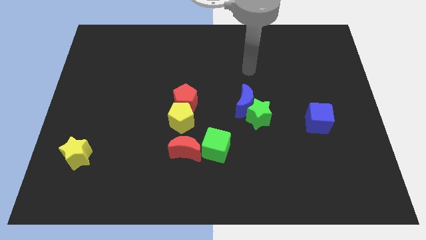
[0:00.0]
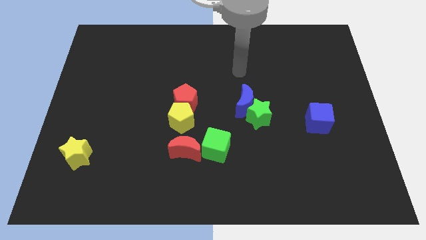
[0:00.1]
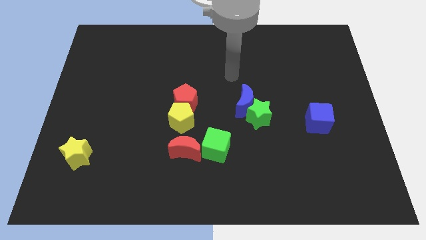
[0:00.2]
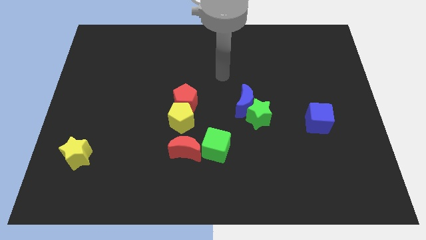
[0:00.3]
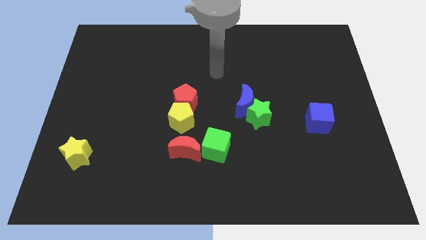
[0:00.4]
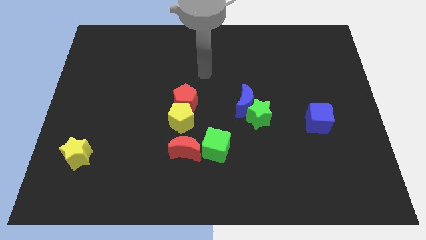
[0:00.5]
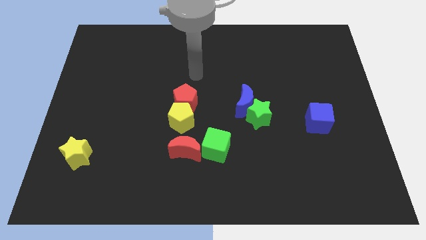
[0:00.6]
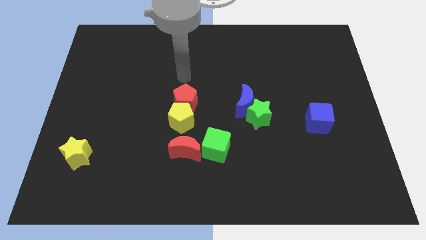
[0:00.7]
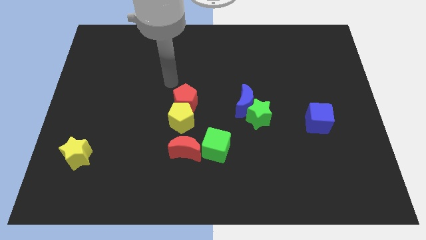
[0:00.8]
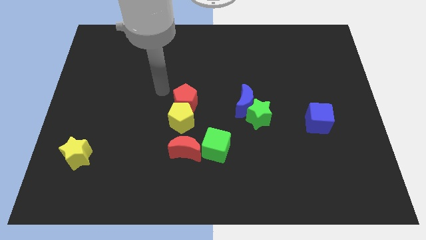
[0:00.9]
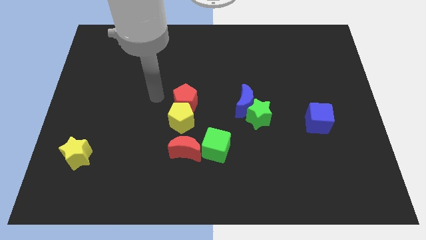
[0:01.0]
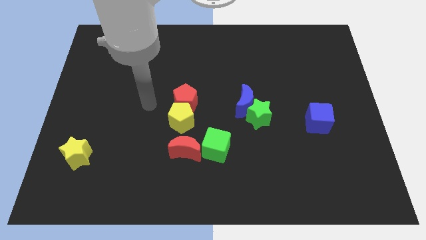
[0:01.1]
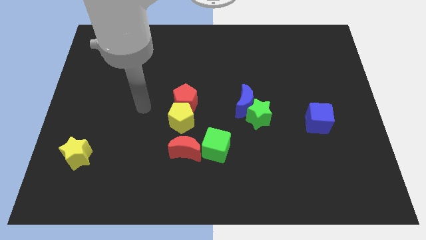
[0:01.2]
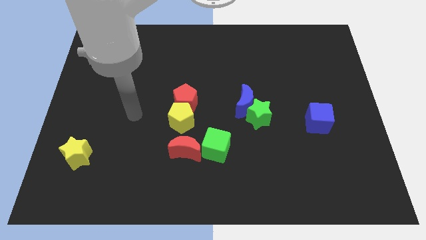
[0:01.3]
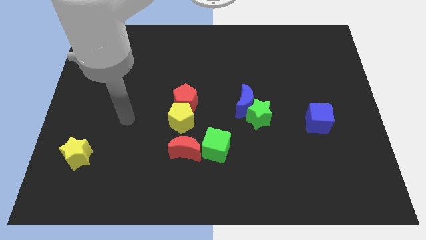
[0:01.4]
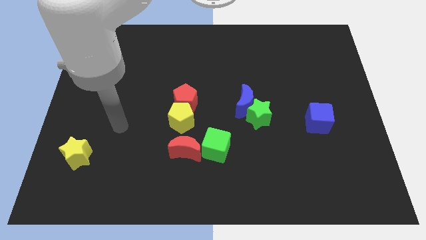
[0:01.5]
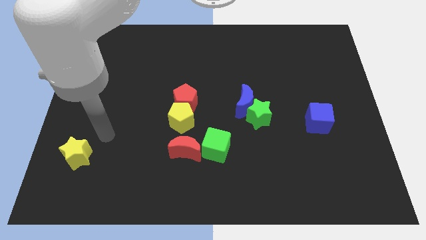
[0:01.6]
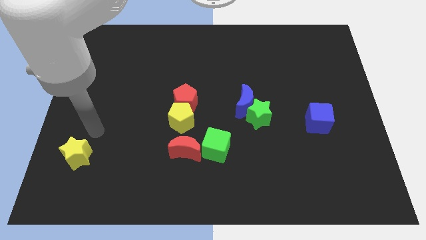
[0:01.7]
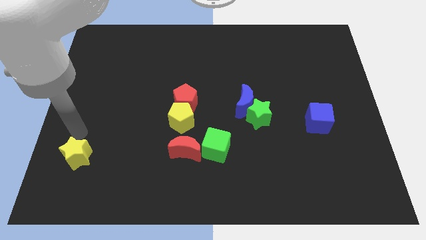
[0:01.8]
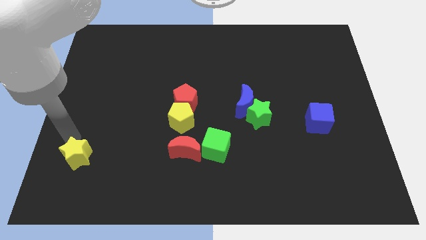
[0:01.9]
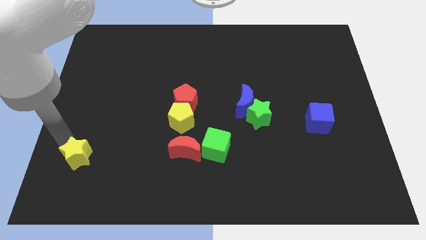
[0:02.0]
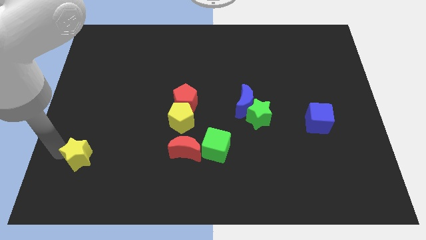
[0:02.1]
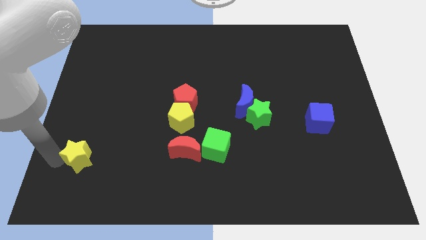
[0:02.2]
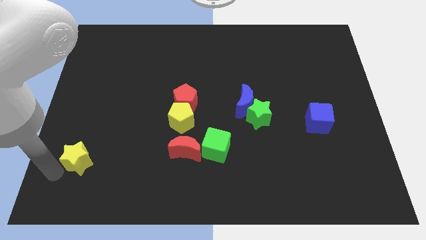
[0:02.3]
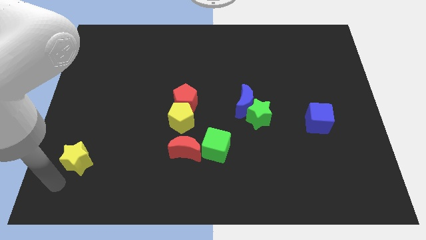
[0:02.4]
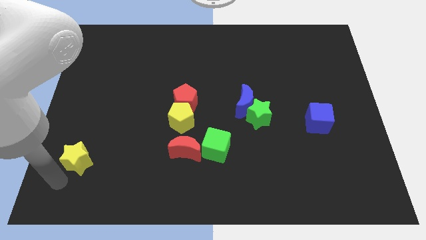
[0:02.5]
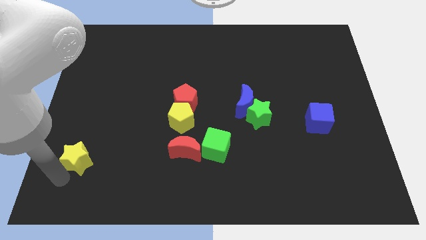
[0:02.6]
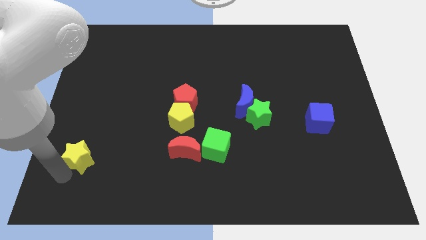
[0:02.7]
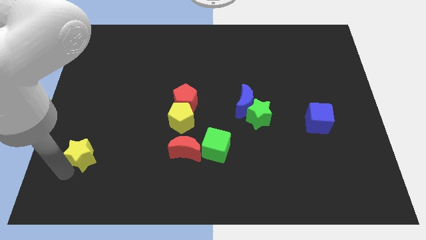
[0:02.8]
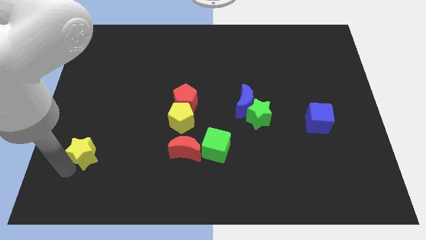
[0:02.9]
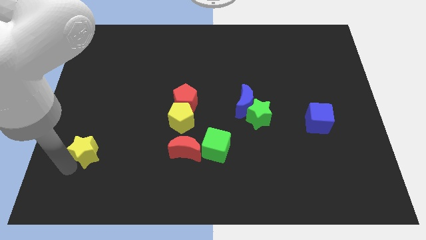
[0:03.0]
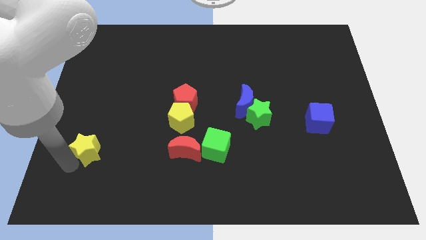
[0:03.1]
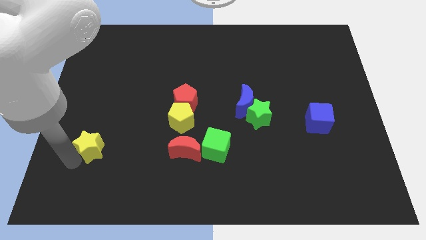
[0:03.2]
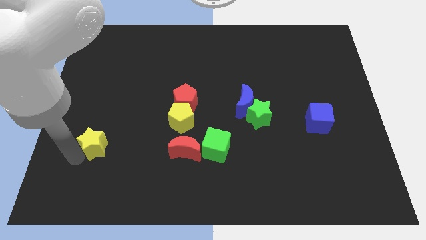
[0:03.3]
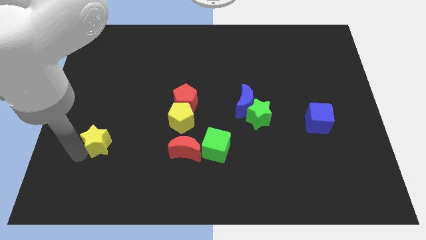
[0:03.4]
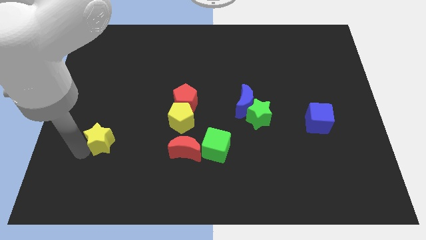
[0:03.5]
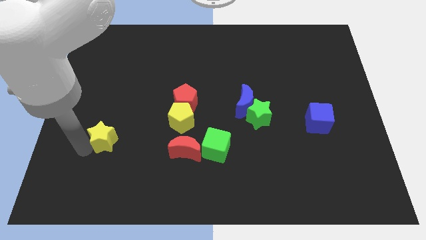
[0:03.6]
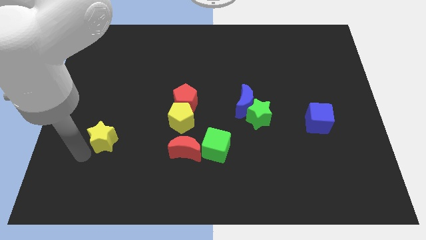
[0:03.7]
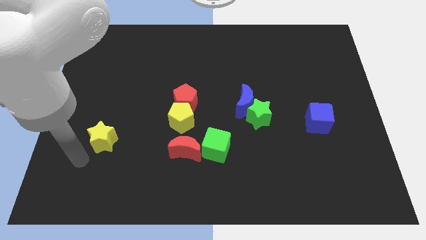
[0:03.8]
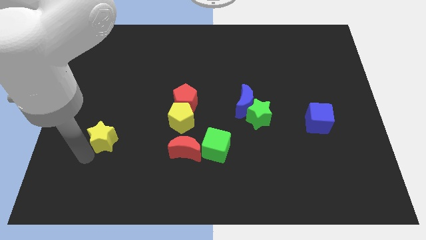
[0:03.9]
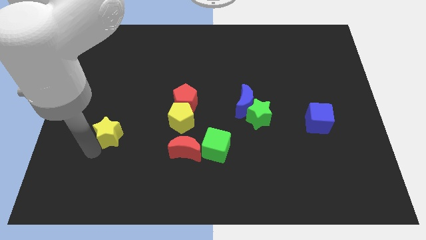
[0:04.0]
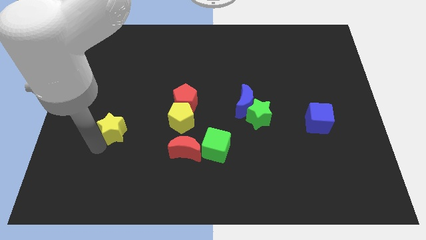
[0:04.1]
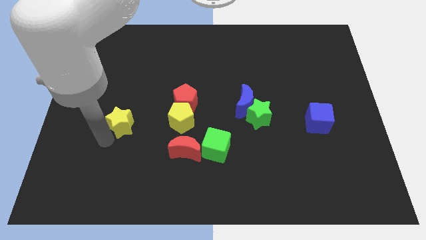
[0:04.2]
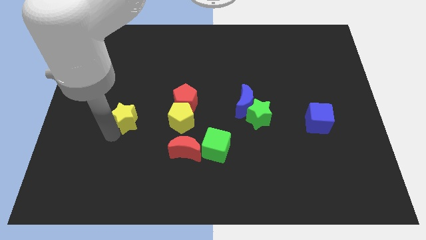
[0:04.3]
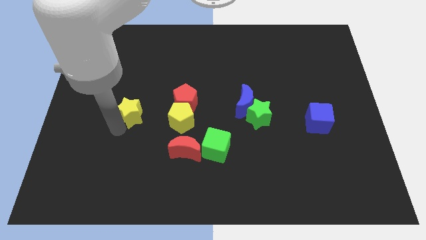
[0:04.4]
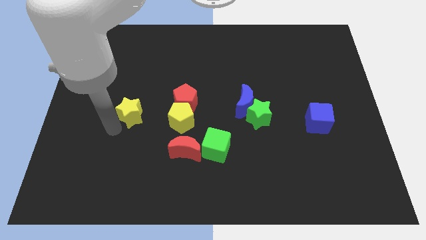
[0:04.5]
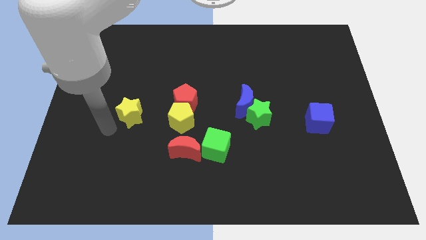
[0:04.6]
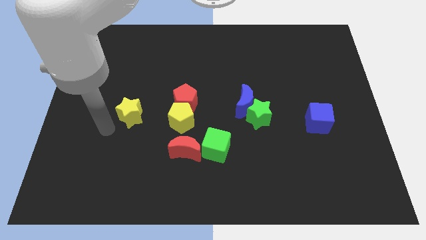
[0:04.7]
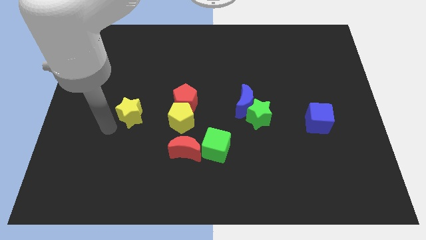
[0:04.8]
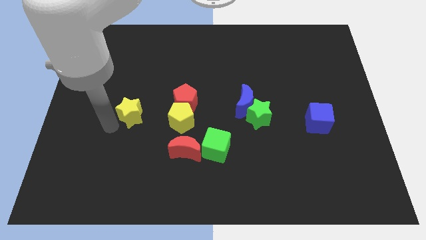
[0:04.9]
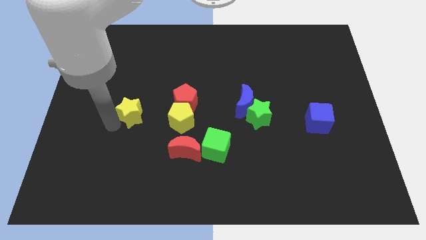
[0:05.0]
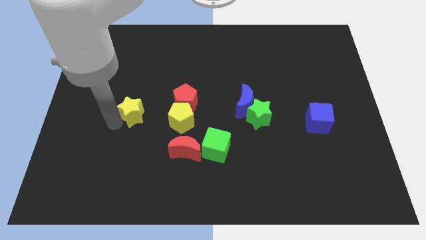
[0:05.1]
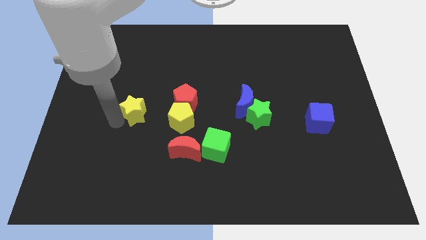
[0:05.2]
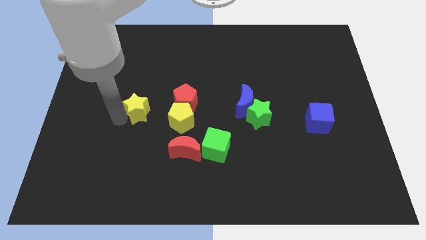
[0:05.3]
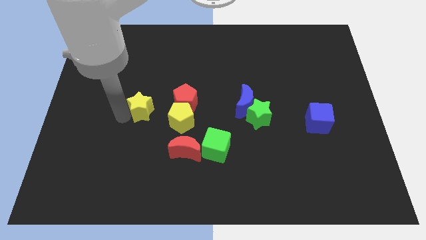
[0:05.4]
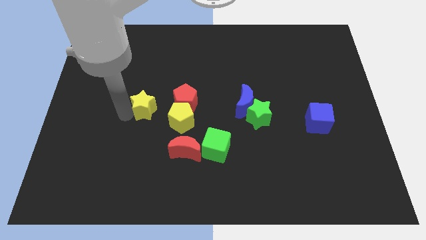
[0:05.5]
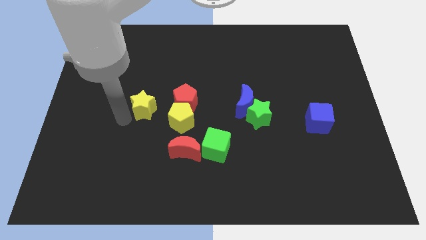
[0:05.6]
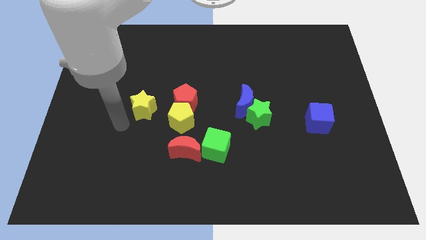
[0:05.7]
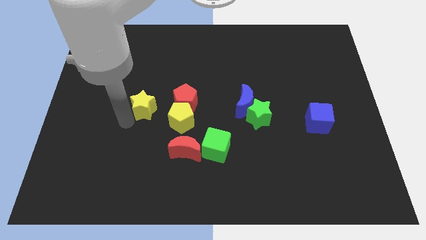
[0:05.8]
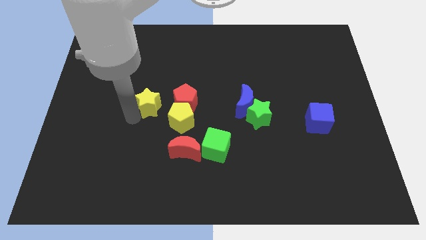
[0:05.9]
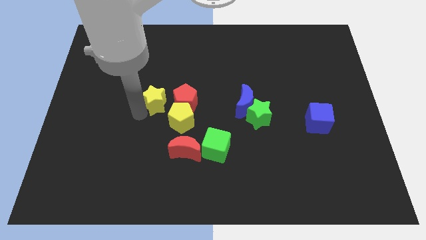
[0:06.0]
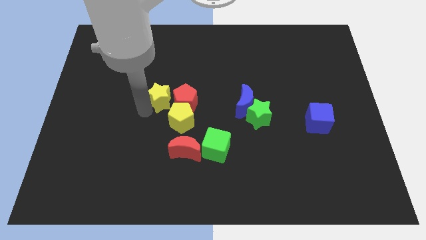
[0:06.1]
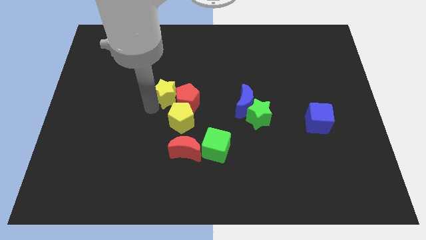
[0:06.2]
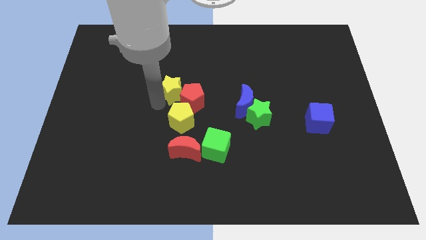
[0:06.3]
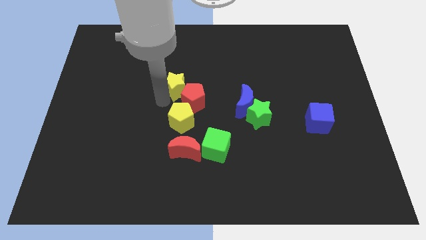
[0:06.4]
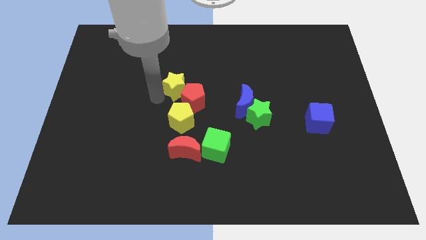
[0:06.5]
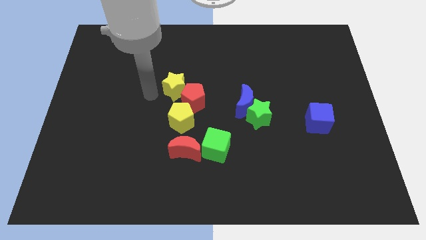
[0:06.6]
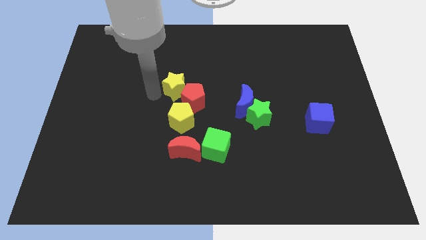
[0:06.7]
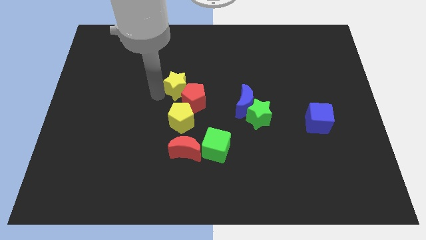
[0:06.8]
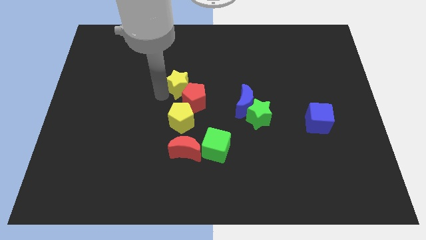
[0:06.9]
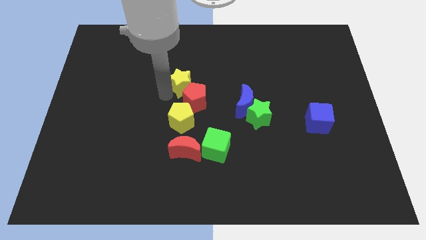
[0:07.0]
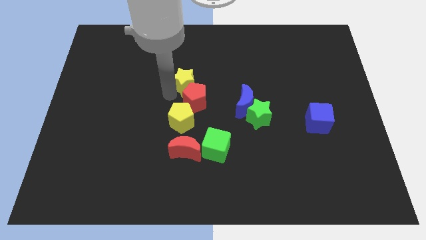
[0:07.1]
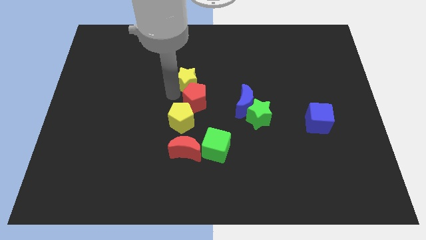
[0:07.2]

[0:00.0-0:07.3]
put the yellow star diagonally up and to the right of the red pentagon

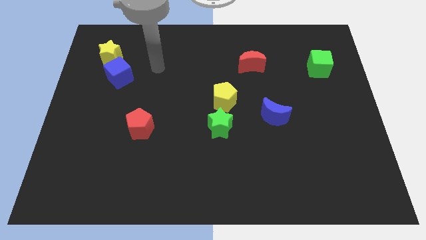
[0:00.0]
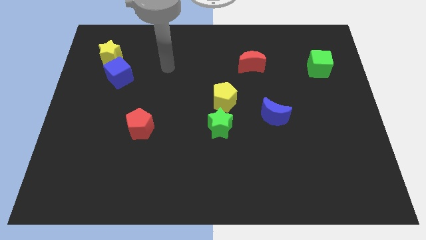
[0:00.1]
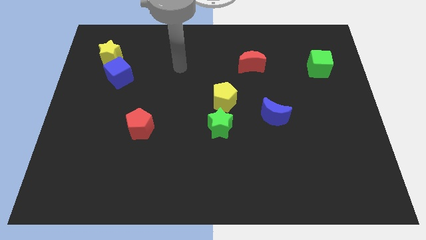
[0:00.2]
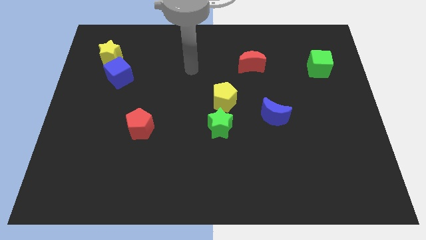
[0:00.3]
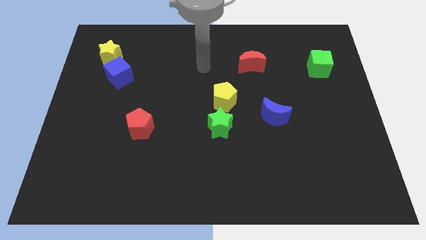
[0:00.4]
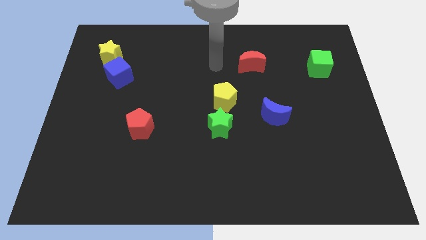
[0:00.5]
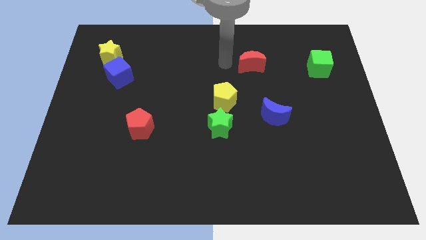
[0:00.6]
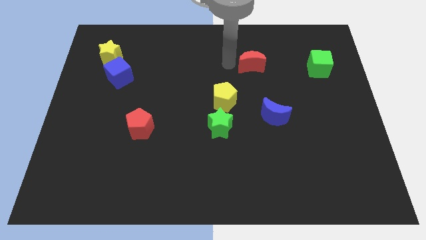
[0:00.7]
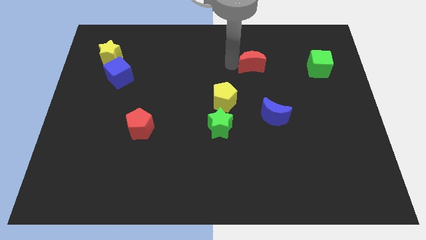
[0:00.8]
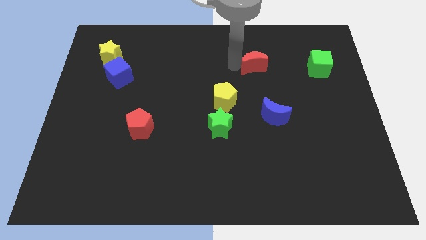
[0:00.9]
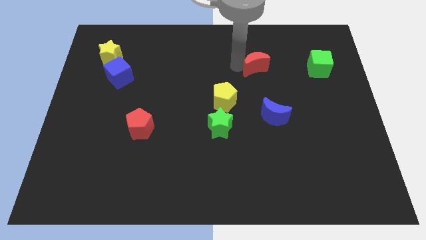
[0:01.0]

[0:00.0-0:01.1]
slide the red moon just left of the green cube

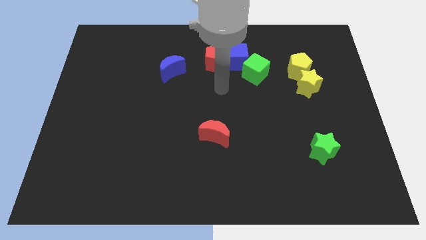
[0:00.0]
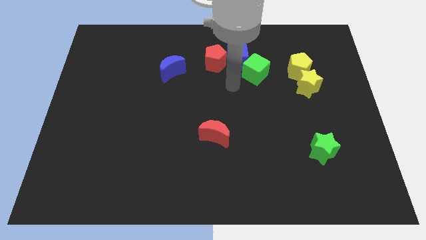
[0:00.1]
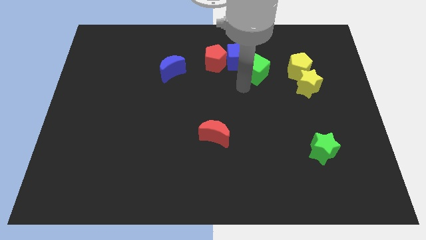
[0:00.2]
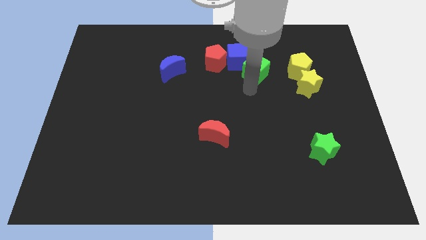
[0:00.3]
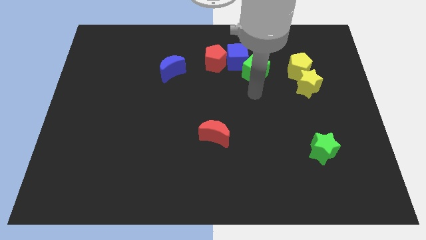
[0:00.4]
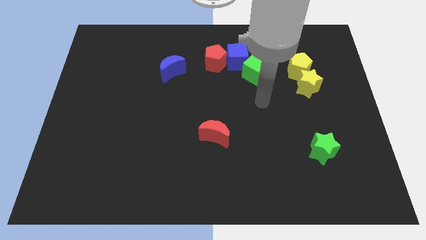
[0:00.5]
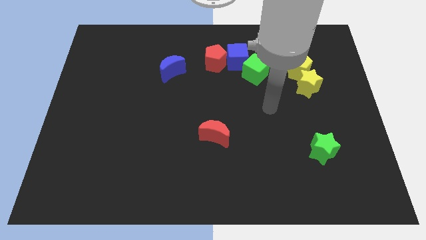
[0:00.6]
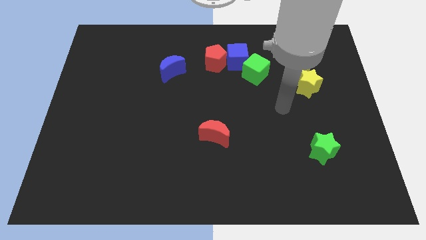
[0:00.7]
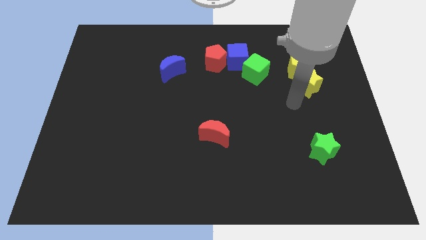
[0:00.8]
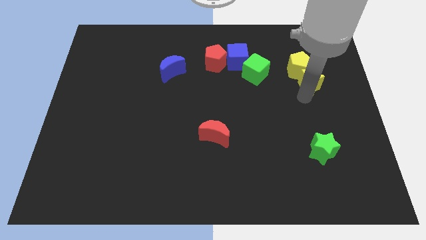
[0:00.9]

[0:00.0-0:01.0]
put the yellow pentagon right of the blue cube
